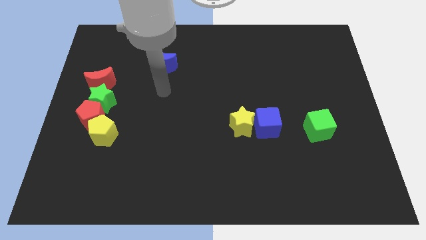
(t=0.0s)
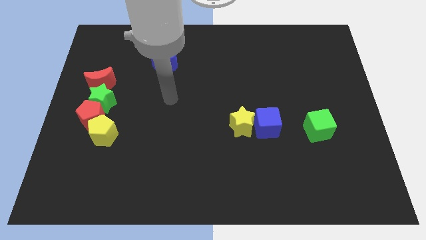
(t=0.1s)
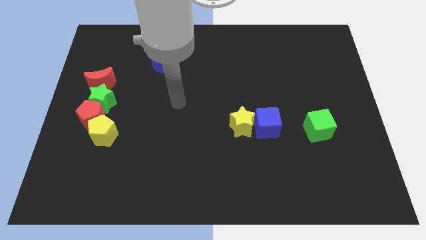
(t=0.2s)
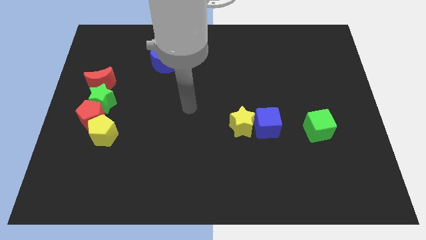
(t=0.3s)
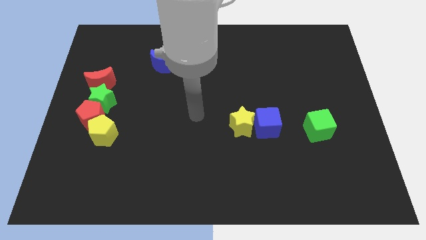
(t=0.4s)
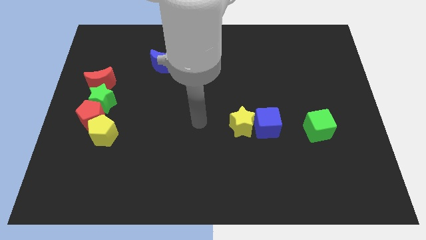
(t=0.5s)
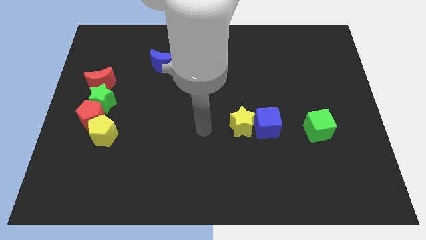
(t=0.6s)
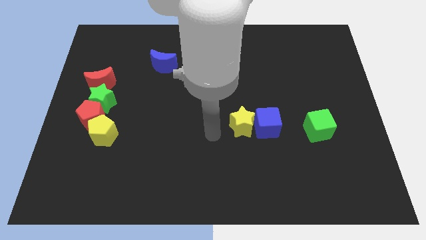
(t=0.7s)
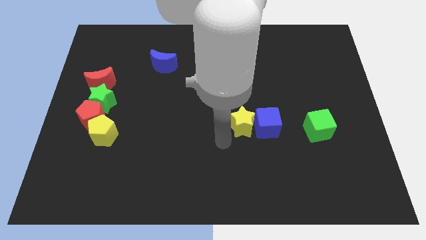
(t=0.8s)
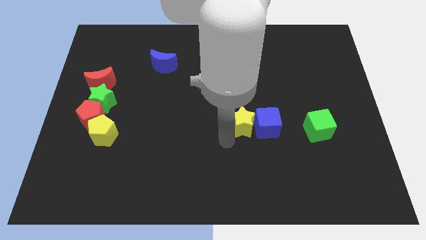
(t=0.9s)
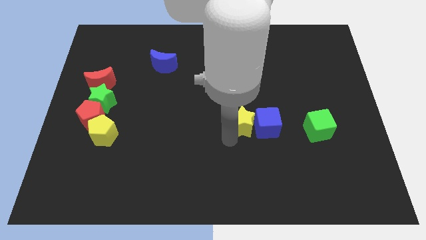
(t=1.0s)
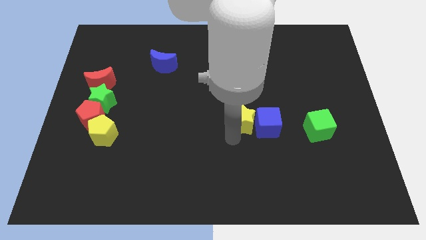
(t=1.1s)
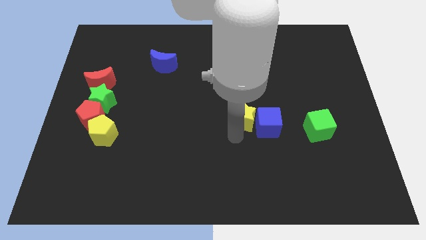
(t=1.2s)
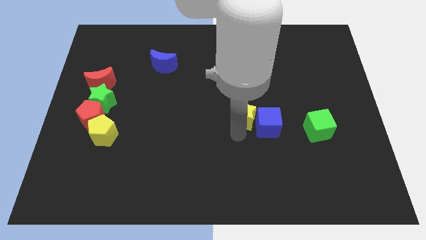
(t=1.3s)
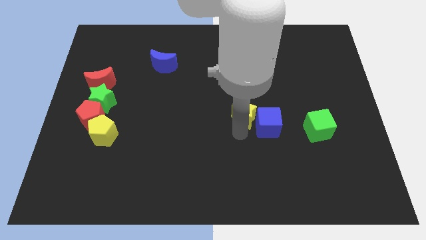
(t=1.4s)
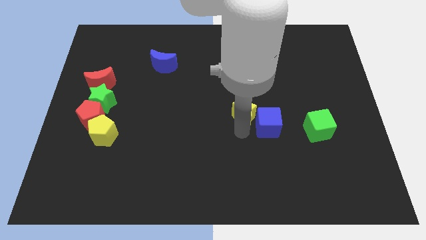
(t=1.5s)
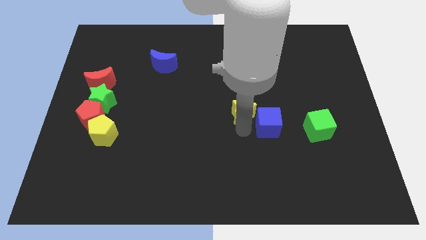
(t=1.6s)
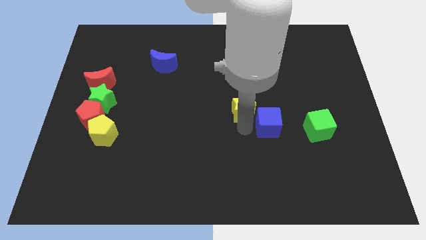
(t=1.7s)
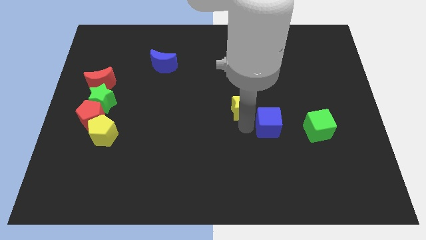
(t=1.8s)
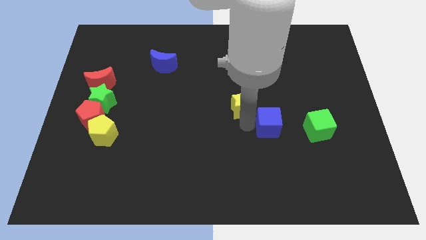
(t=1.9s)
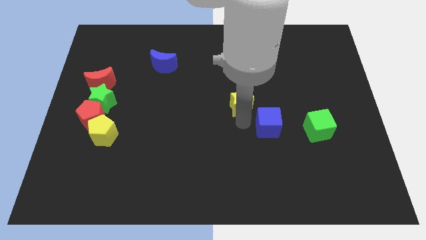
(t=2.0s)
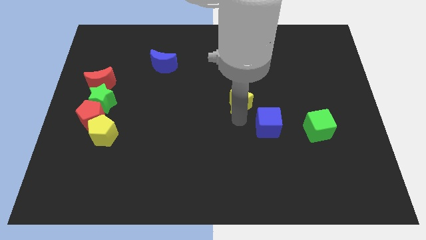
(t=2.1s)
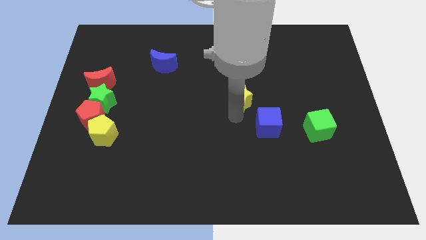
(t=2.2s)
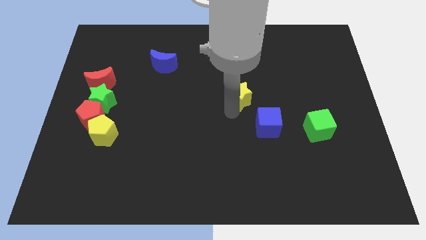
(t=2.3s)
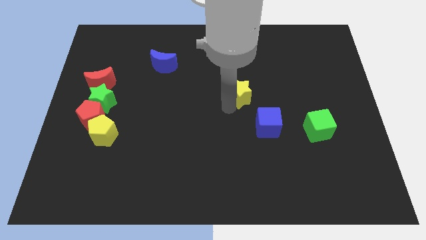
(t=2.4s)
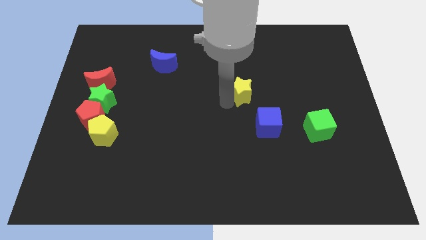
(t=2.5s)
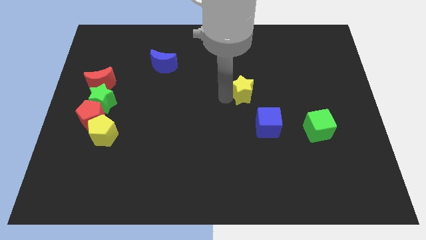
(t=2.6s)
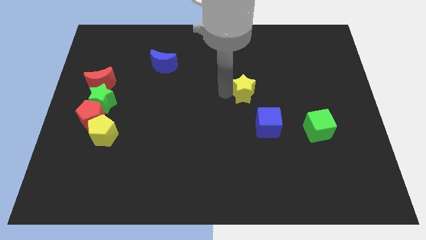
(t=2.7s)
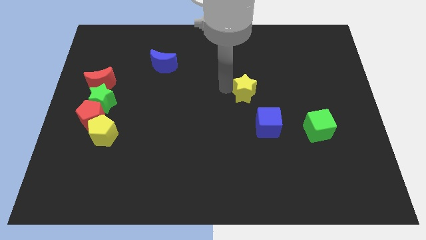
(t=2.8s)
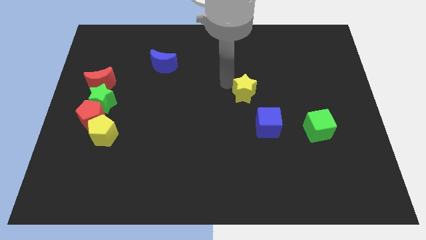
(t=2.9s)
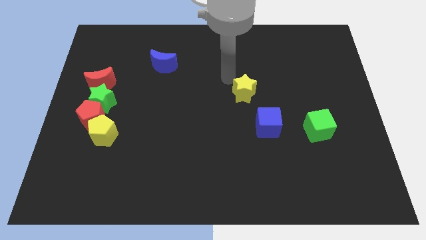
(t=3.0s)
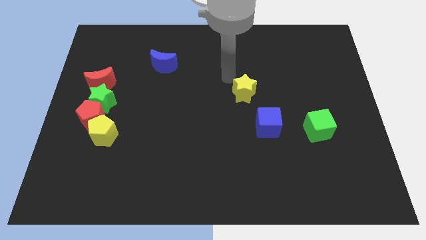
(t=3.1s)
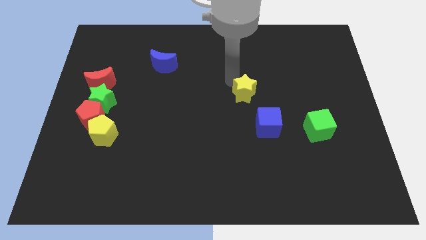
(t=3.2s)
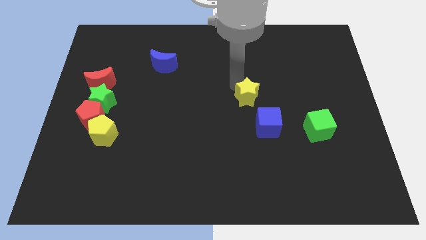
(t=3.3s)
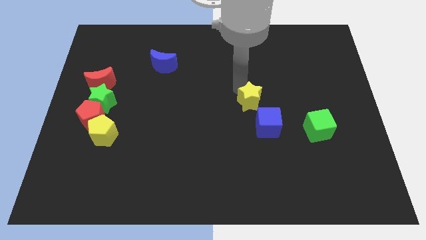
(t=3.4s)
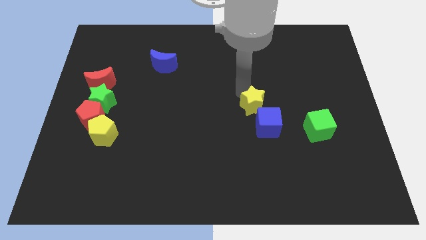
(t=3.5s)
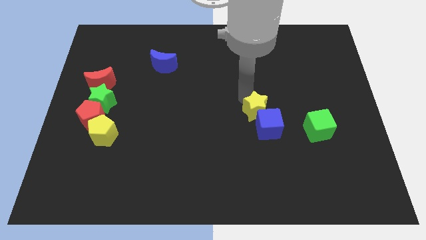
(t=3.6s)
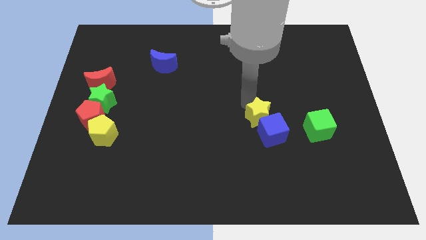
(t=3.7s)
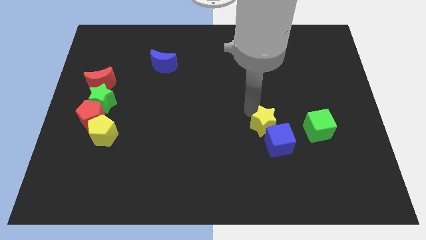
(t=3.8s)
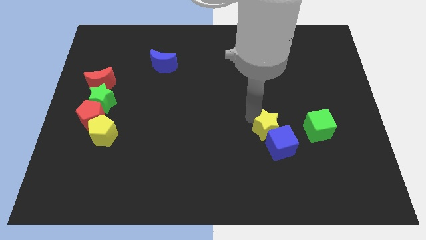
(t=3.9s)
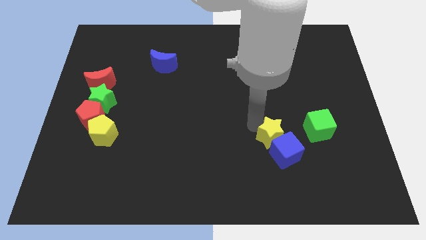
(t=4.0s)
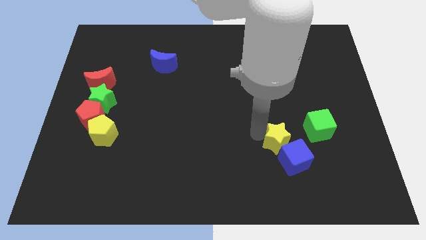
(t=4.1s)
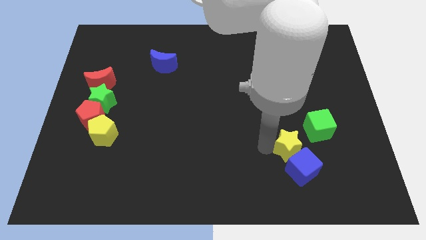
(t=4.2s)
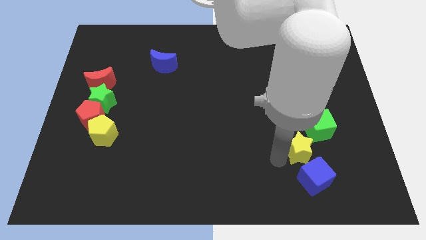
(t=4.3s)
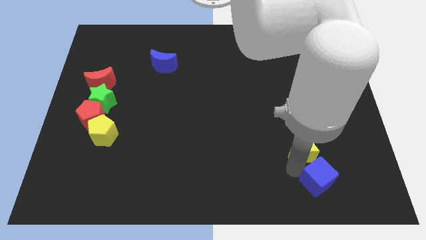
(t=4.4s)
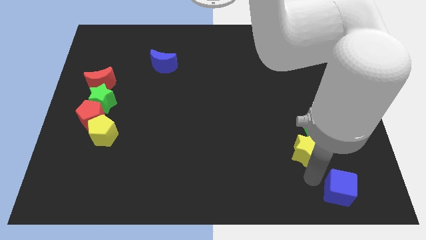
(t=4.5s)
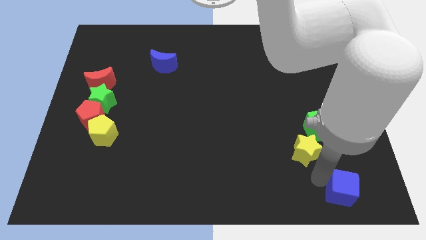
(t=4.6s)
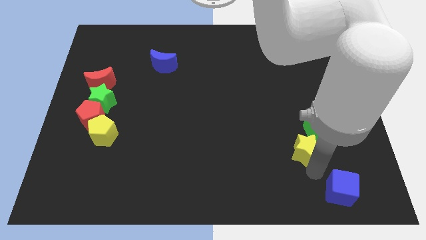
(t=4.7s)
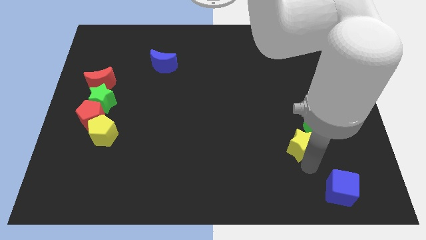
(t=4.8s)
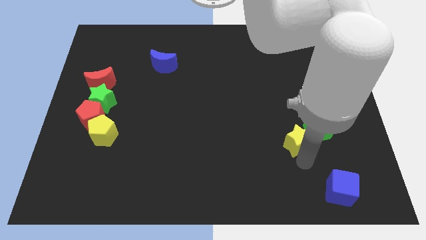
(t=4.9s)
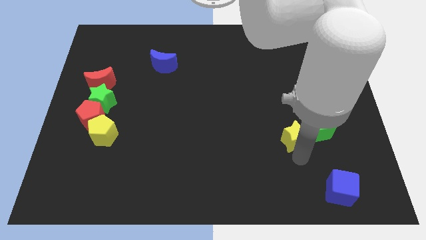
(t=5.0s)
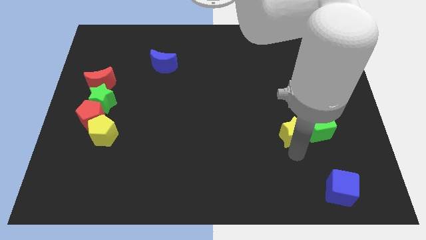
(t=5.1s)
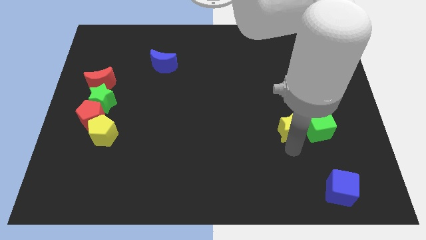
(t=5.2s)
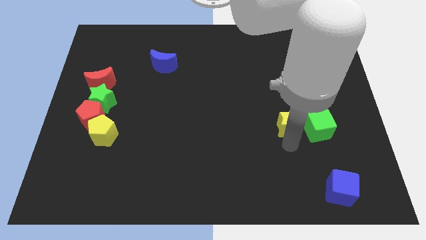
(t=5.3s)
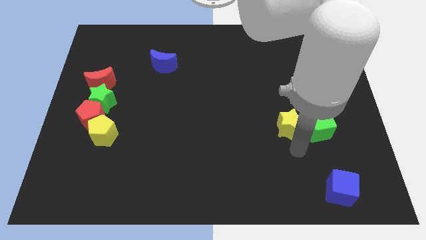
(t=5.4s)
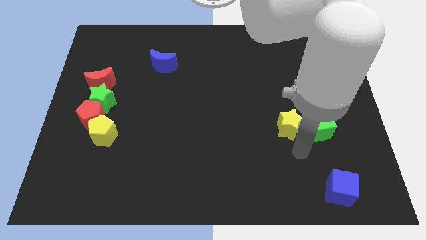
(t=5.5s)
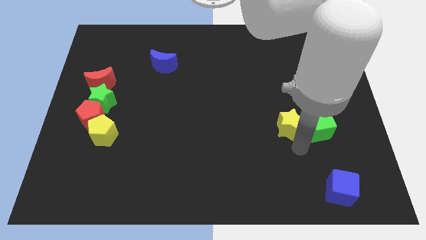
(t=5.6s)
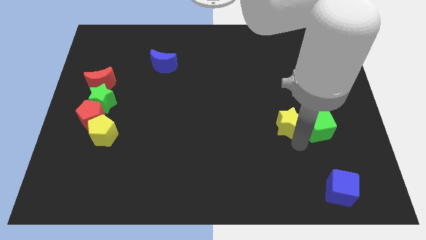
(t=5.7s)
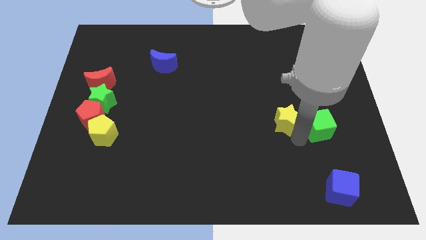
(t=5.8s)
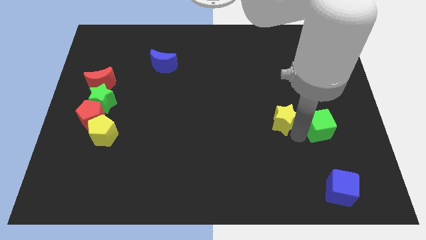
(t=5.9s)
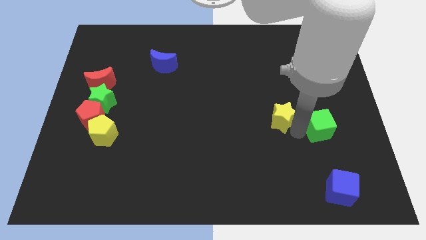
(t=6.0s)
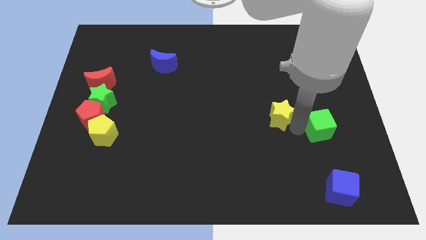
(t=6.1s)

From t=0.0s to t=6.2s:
move the yellow star up and right diagonally slightly

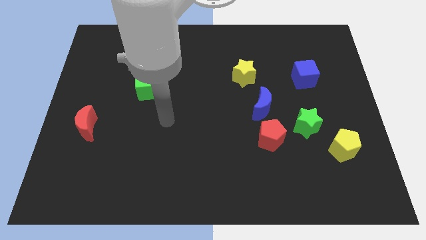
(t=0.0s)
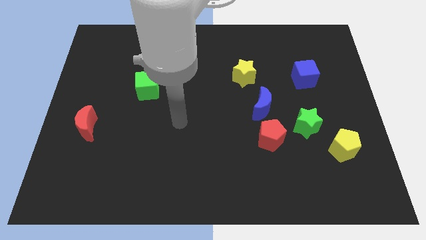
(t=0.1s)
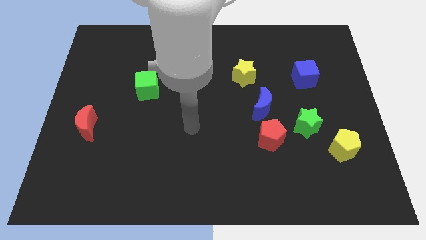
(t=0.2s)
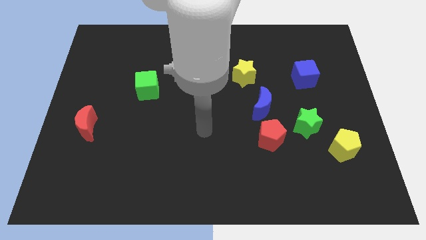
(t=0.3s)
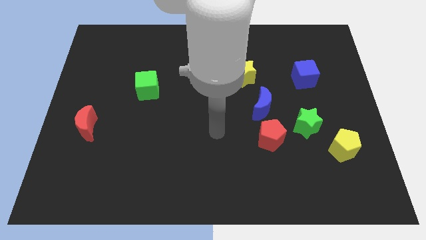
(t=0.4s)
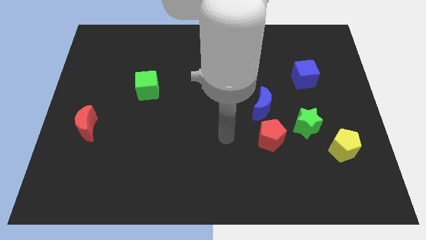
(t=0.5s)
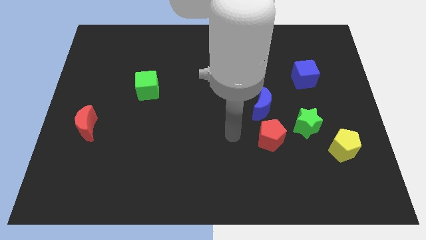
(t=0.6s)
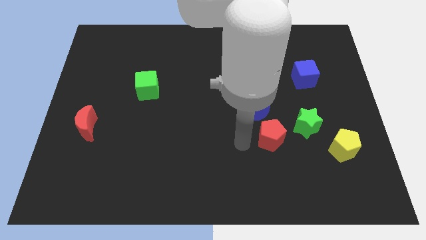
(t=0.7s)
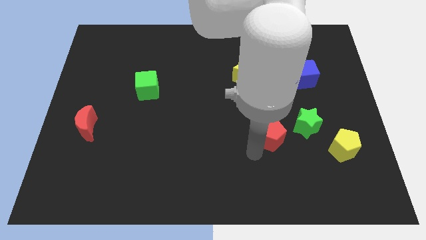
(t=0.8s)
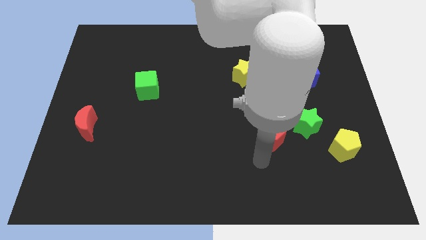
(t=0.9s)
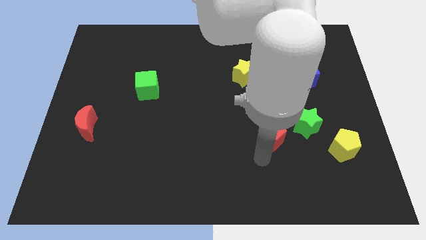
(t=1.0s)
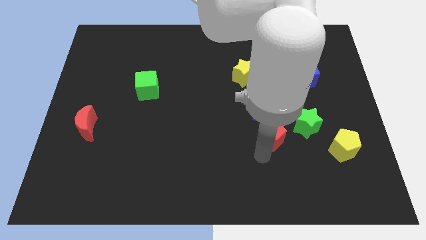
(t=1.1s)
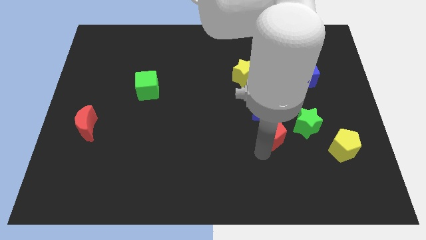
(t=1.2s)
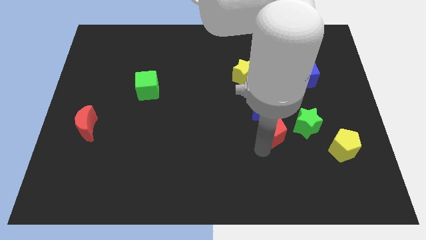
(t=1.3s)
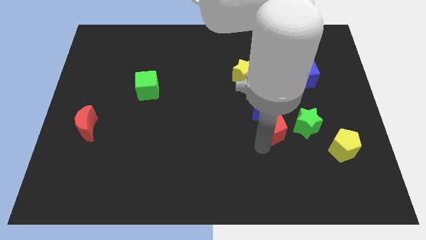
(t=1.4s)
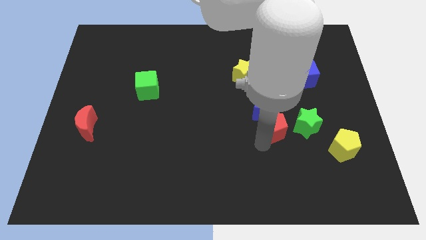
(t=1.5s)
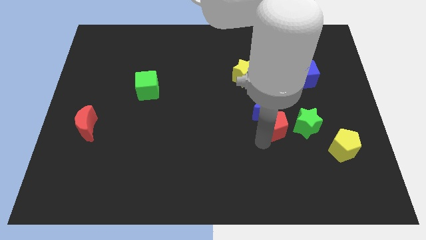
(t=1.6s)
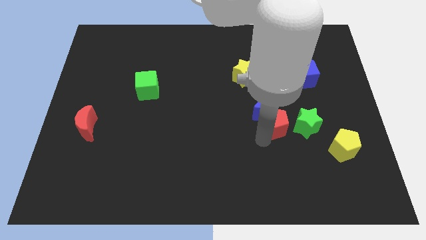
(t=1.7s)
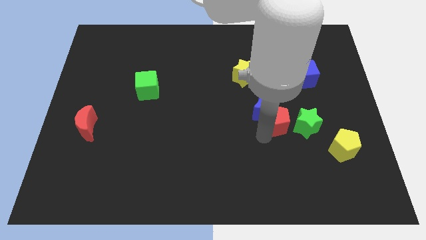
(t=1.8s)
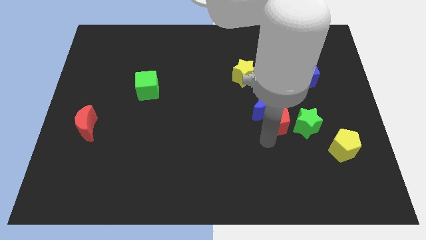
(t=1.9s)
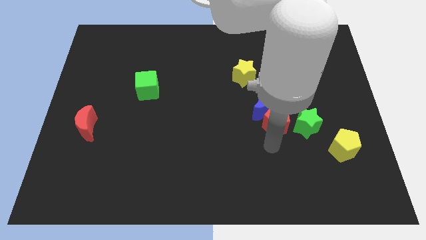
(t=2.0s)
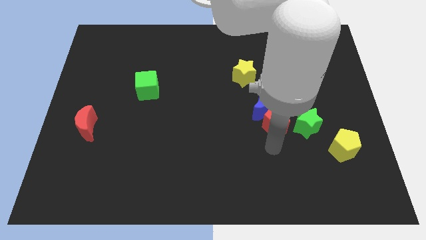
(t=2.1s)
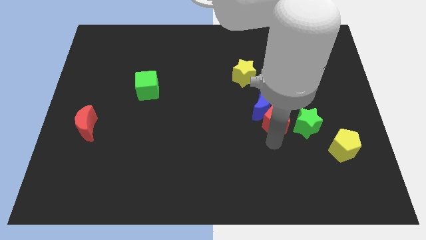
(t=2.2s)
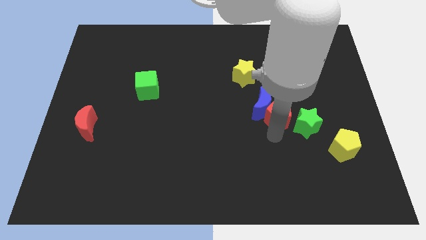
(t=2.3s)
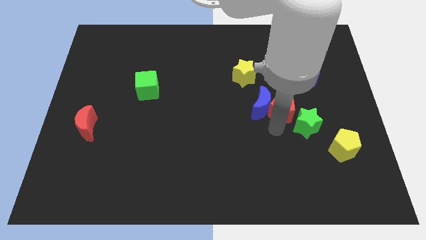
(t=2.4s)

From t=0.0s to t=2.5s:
slightly slide the red pentagon upwards
